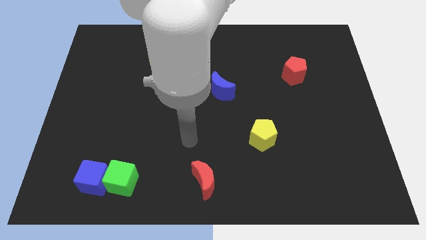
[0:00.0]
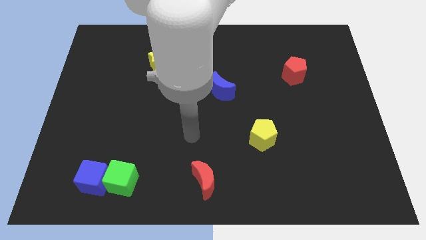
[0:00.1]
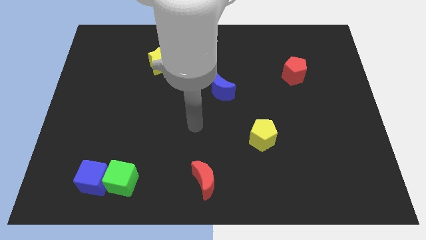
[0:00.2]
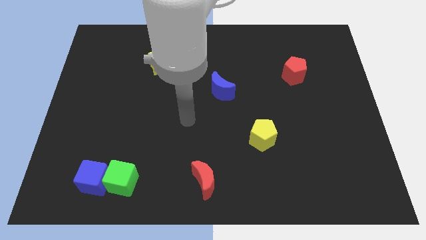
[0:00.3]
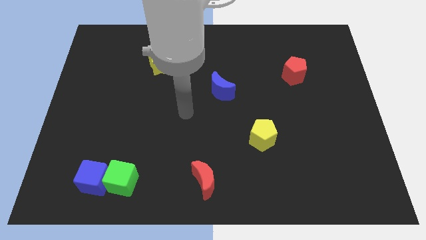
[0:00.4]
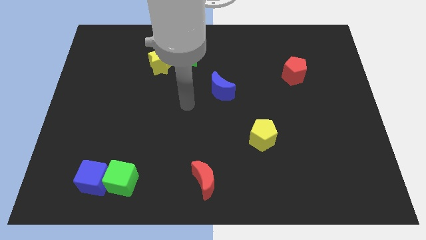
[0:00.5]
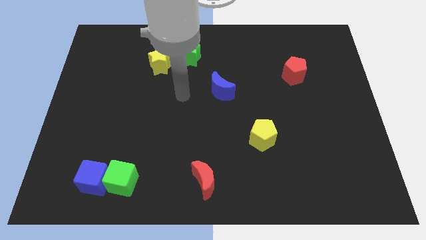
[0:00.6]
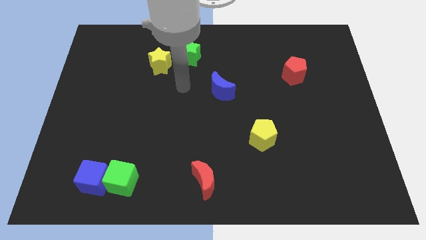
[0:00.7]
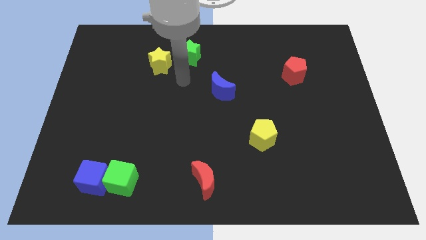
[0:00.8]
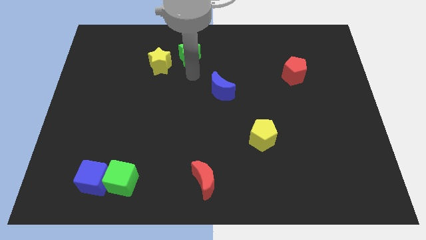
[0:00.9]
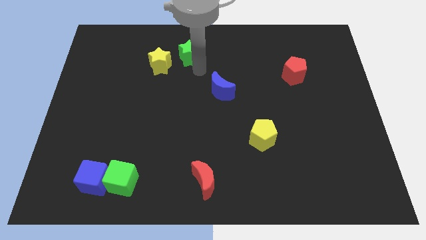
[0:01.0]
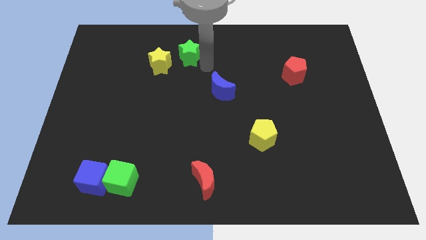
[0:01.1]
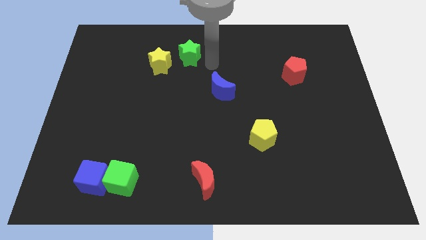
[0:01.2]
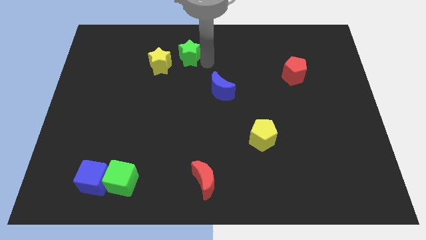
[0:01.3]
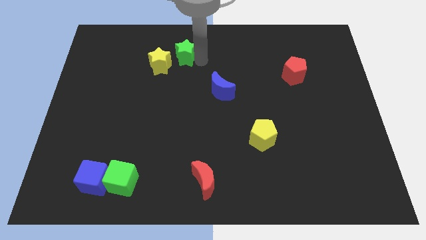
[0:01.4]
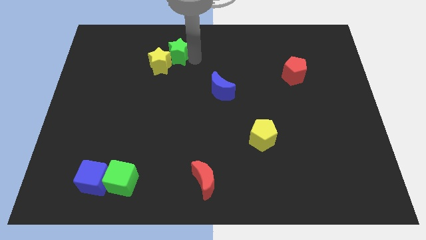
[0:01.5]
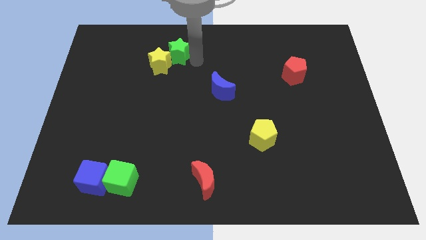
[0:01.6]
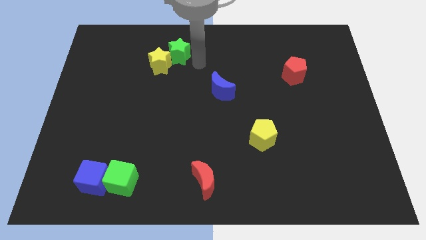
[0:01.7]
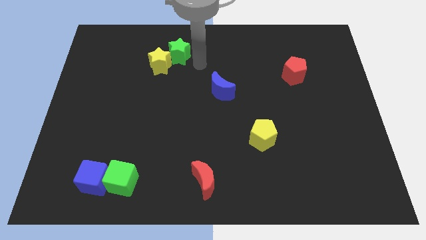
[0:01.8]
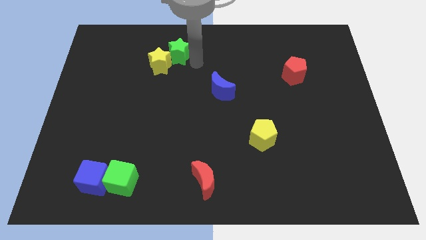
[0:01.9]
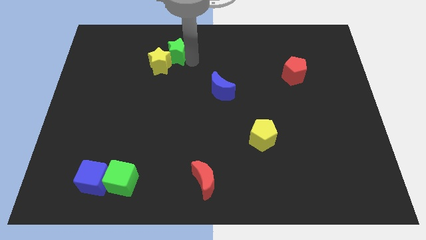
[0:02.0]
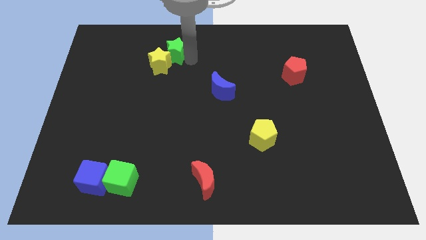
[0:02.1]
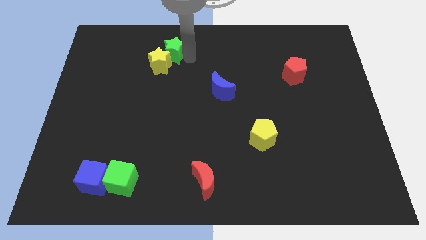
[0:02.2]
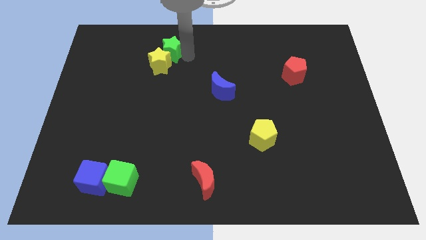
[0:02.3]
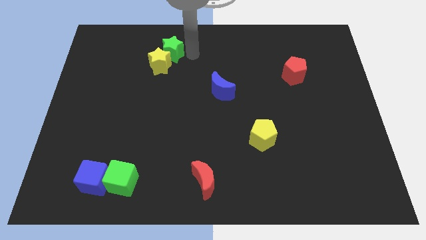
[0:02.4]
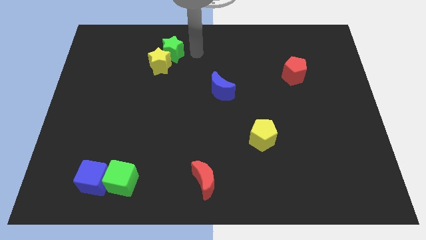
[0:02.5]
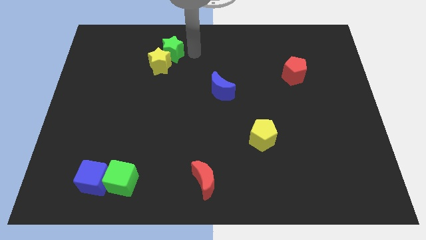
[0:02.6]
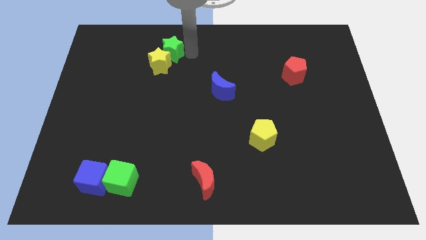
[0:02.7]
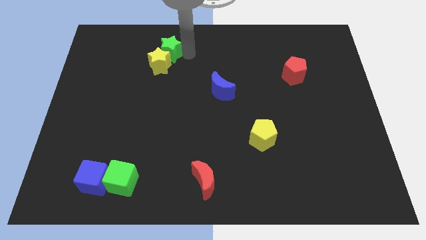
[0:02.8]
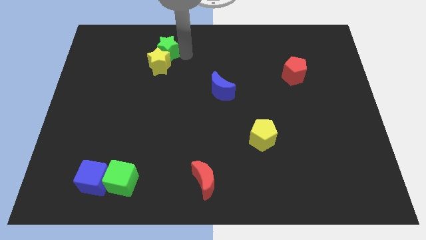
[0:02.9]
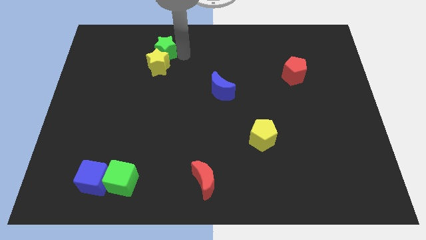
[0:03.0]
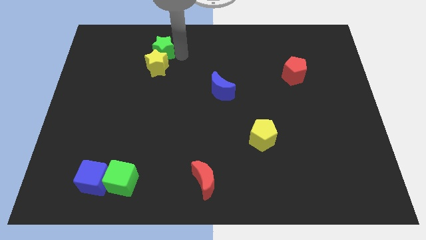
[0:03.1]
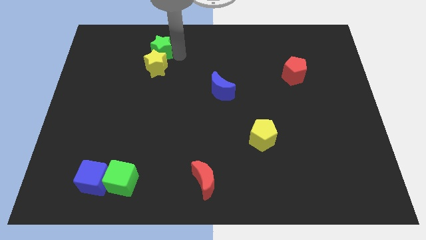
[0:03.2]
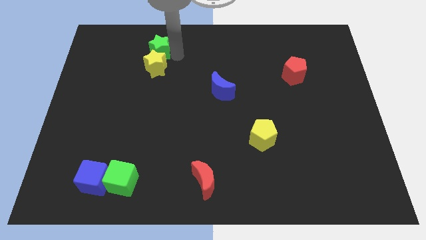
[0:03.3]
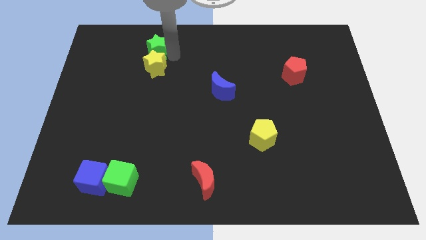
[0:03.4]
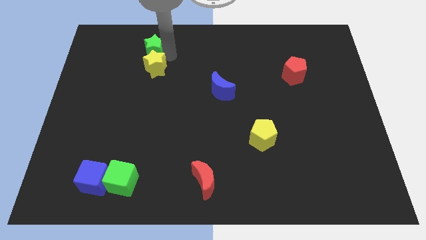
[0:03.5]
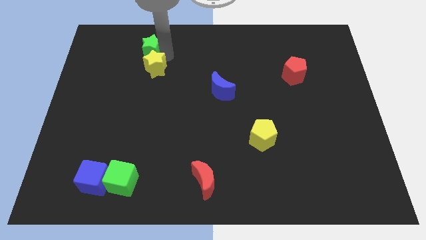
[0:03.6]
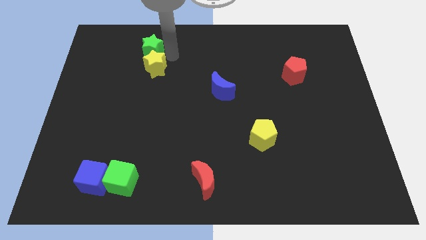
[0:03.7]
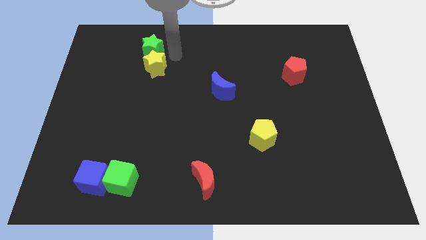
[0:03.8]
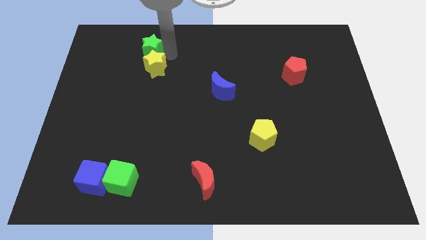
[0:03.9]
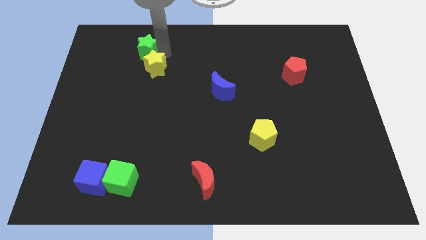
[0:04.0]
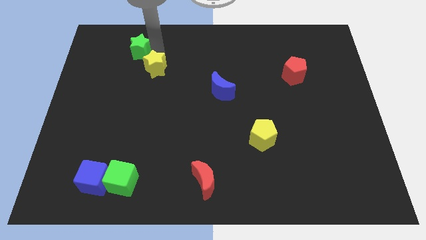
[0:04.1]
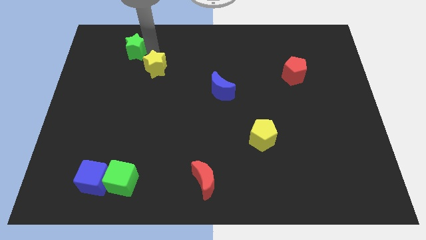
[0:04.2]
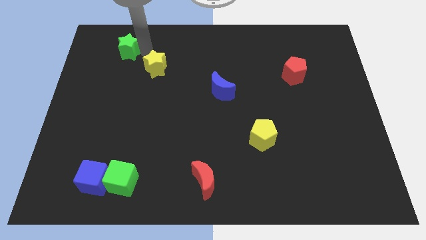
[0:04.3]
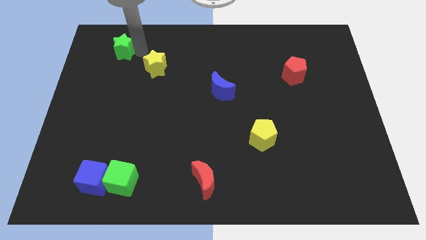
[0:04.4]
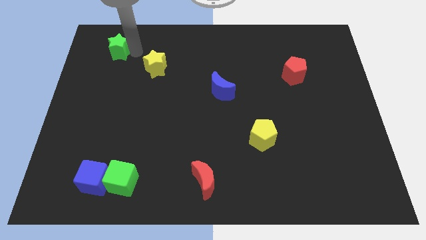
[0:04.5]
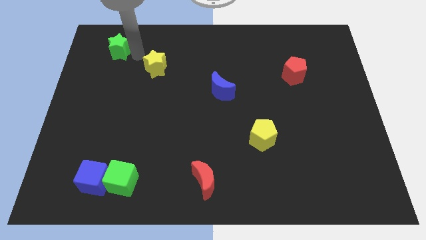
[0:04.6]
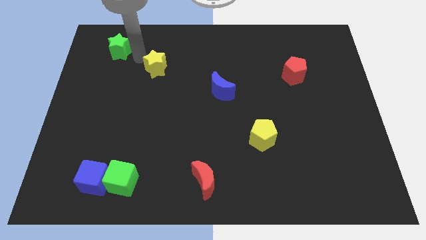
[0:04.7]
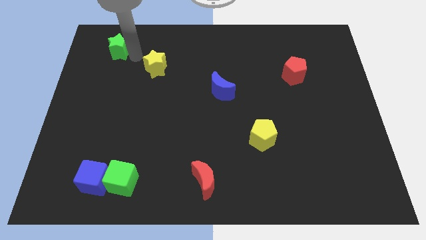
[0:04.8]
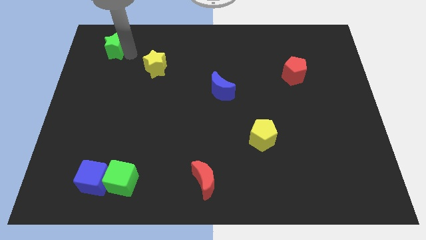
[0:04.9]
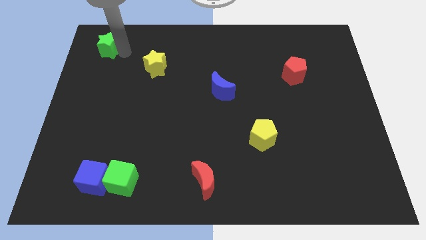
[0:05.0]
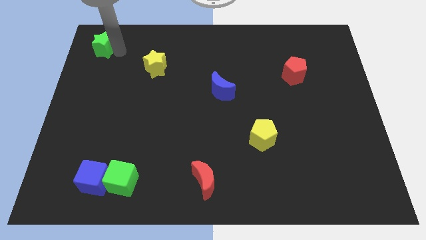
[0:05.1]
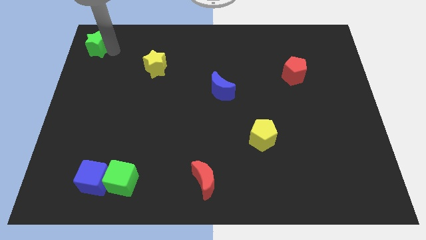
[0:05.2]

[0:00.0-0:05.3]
move the green star to the top left corner

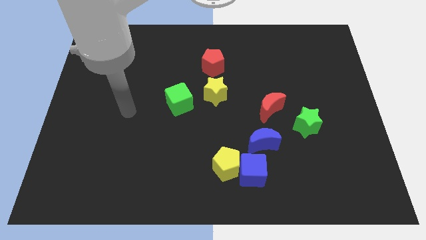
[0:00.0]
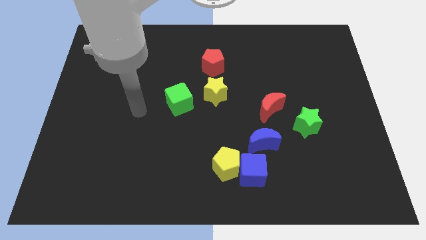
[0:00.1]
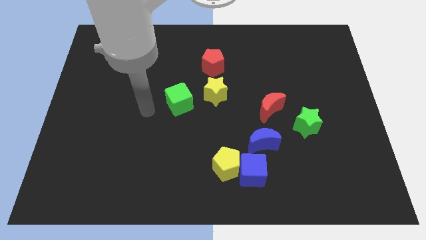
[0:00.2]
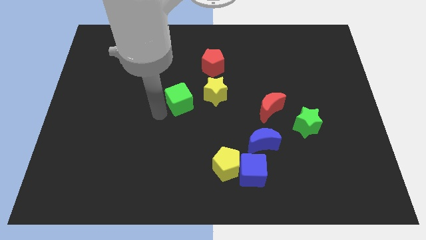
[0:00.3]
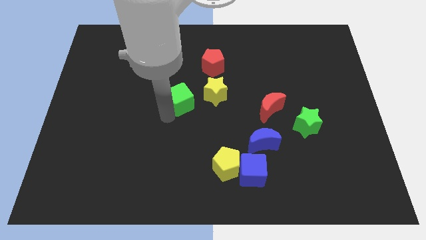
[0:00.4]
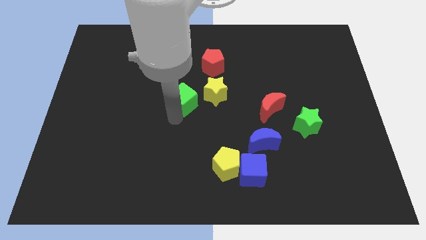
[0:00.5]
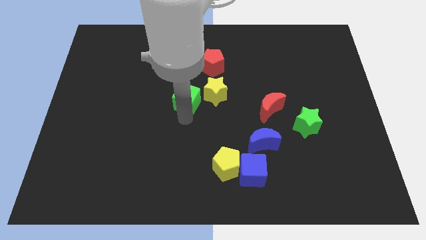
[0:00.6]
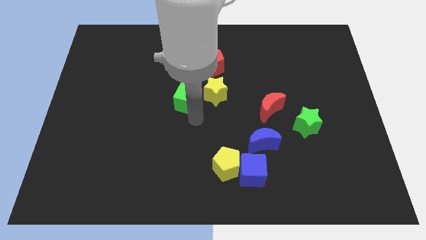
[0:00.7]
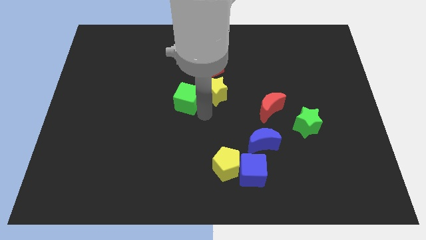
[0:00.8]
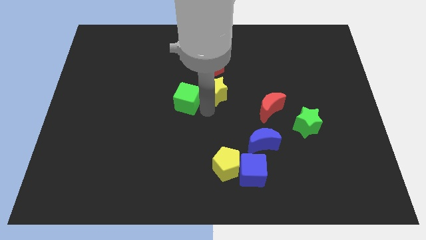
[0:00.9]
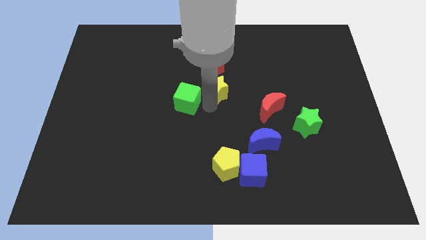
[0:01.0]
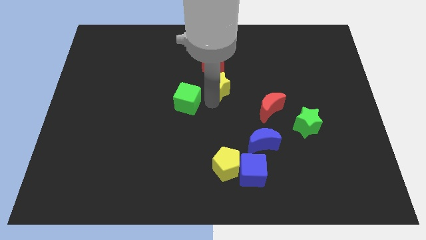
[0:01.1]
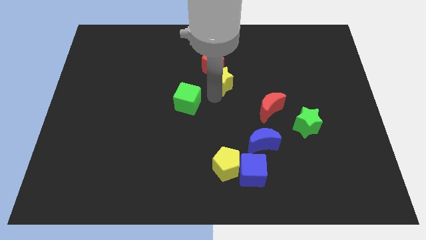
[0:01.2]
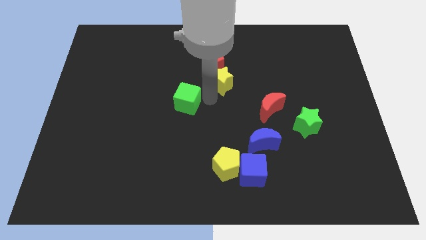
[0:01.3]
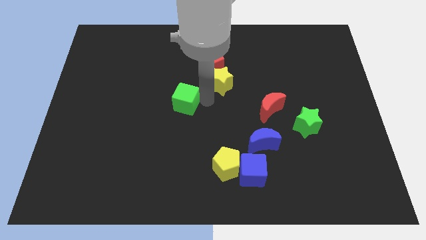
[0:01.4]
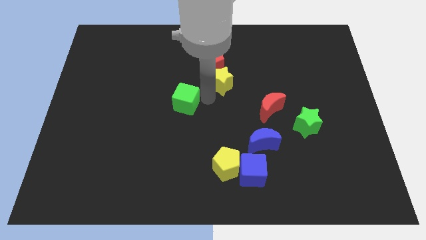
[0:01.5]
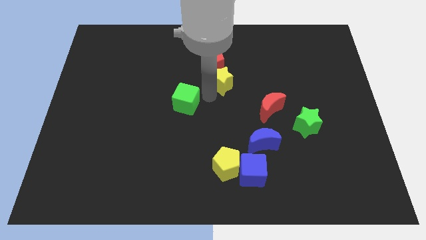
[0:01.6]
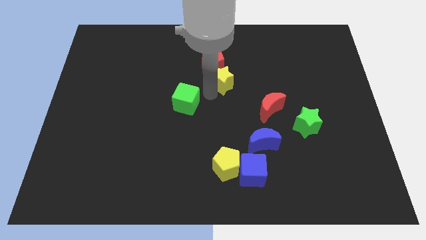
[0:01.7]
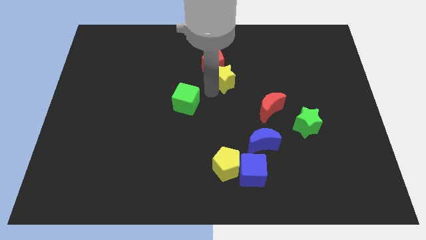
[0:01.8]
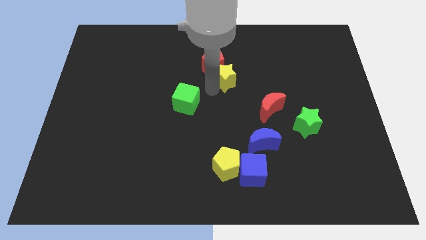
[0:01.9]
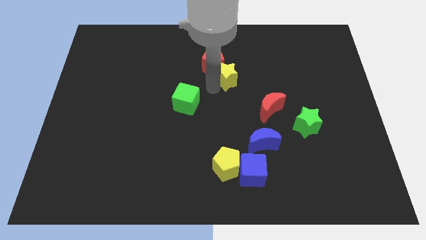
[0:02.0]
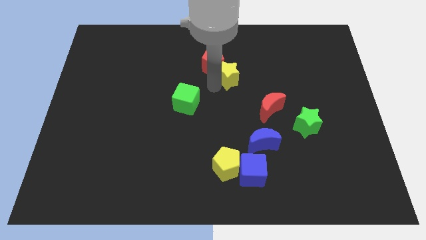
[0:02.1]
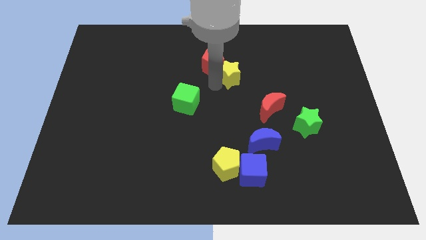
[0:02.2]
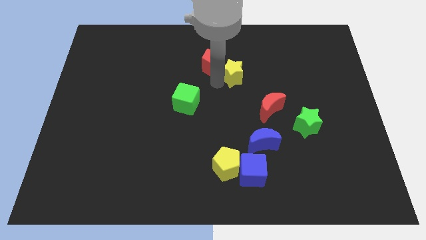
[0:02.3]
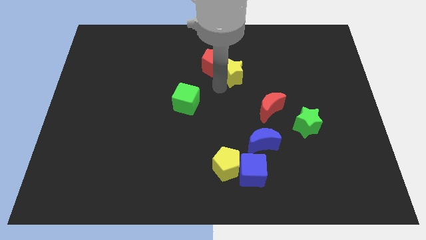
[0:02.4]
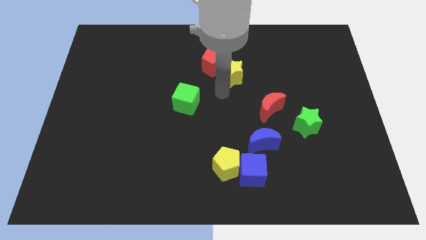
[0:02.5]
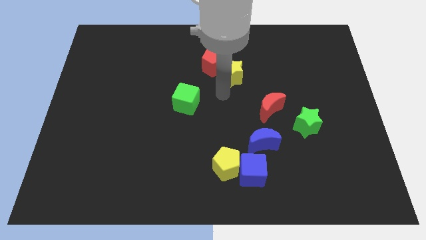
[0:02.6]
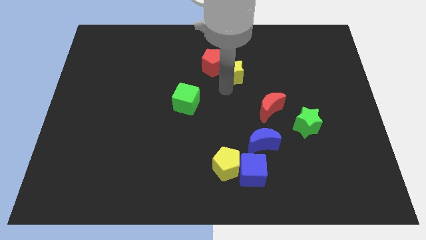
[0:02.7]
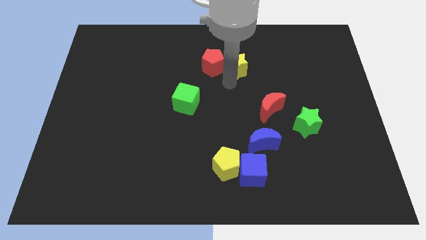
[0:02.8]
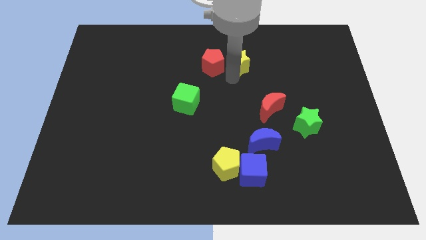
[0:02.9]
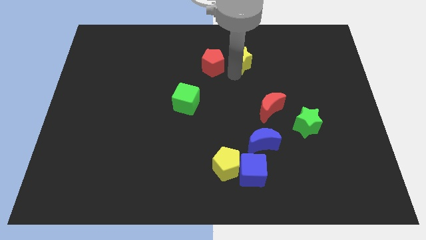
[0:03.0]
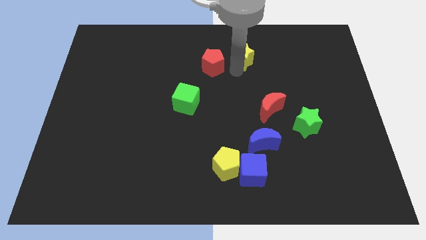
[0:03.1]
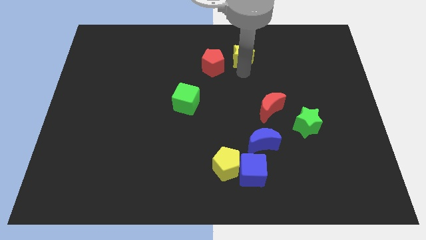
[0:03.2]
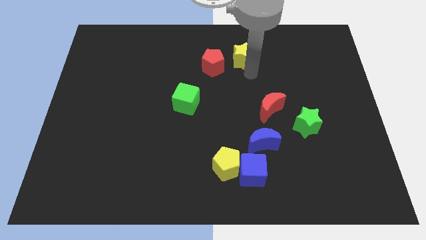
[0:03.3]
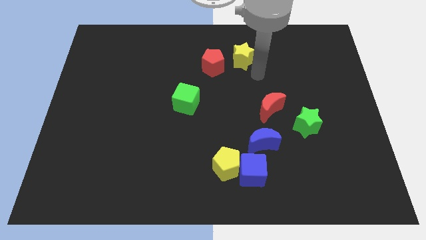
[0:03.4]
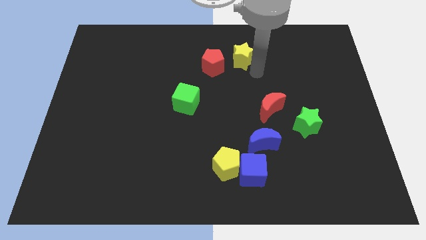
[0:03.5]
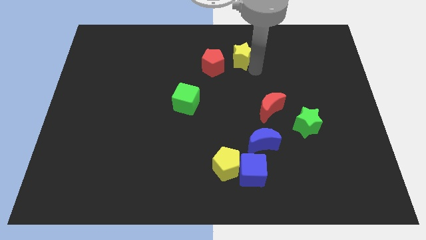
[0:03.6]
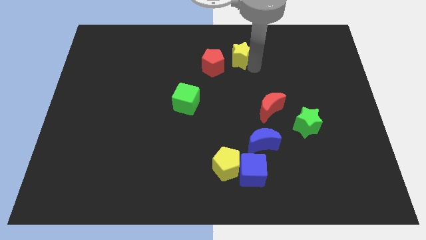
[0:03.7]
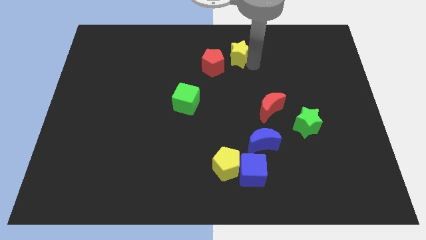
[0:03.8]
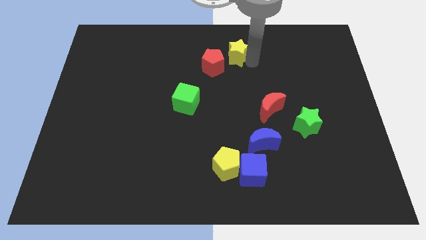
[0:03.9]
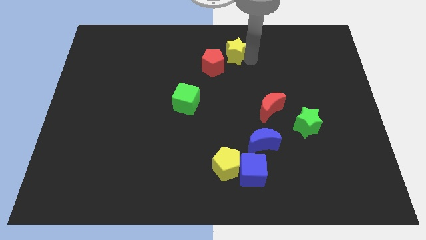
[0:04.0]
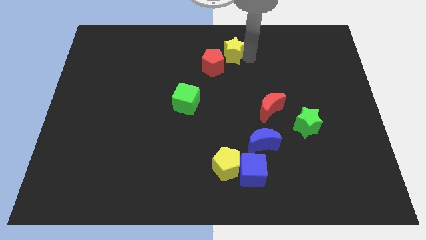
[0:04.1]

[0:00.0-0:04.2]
put the yellow star to the top side
